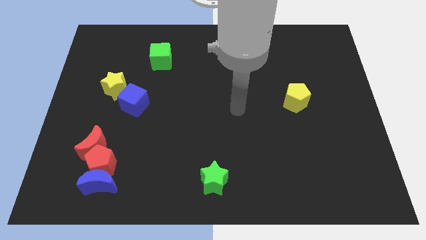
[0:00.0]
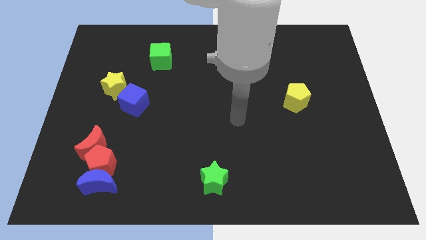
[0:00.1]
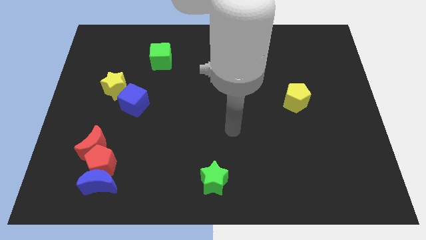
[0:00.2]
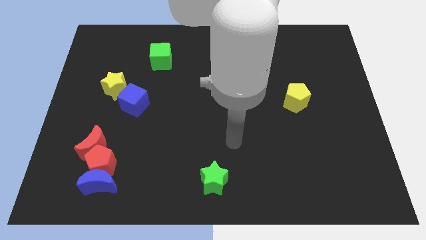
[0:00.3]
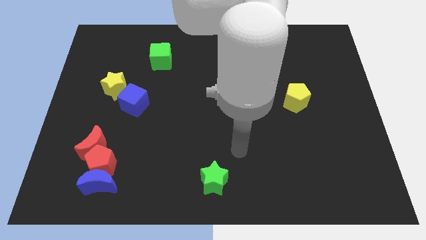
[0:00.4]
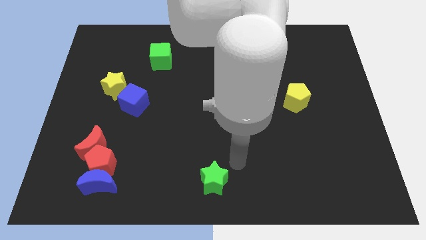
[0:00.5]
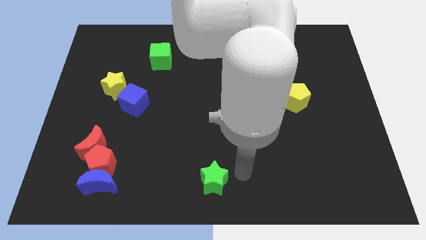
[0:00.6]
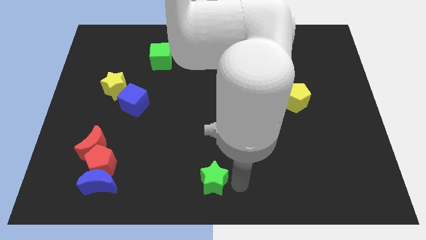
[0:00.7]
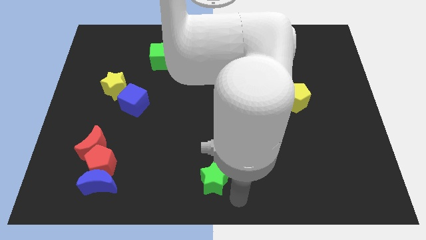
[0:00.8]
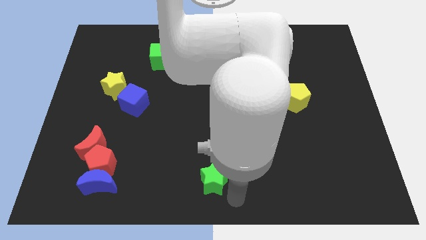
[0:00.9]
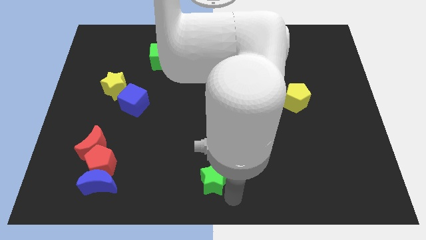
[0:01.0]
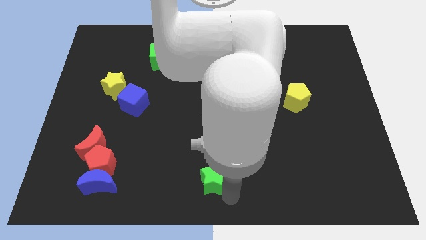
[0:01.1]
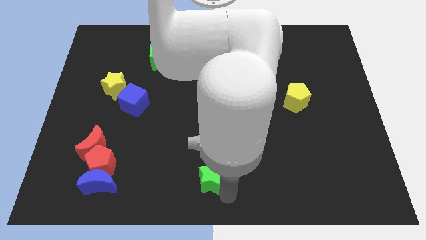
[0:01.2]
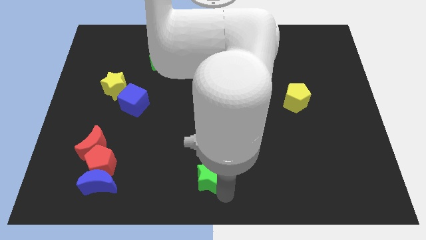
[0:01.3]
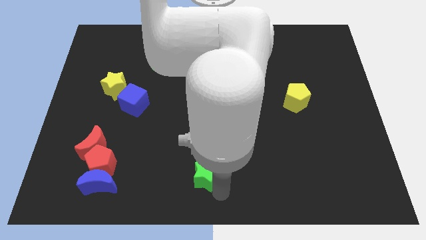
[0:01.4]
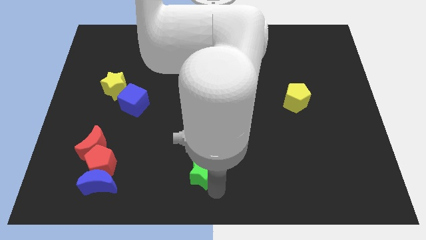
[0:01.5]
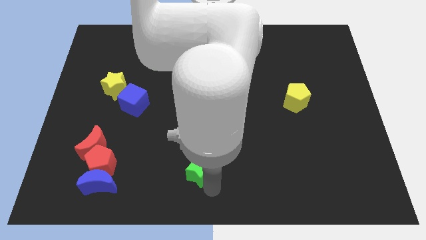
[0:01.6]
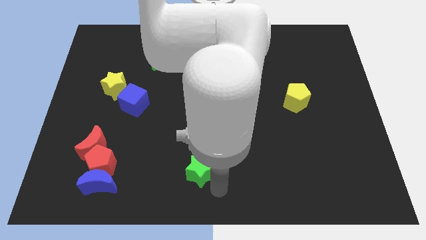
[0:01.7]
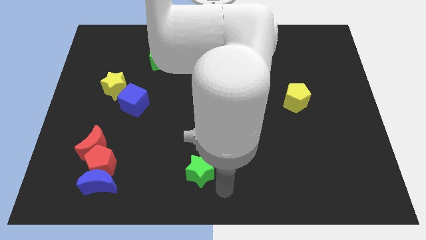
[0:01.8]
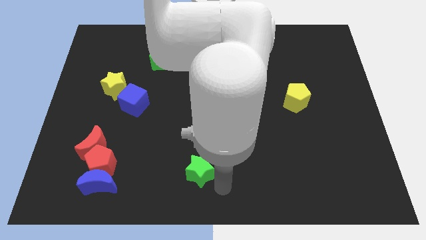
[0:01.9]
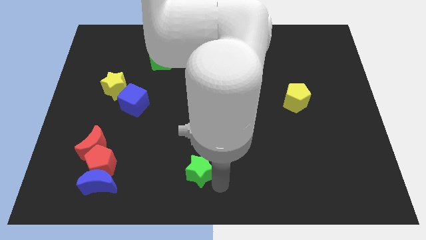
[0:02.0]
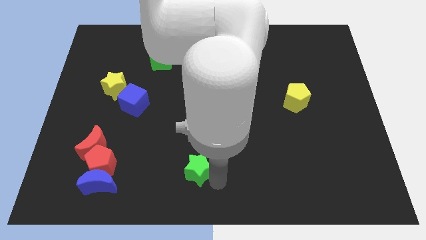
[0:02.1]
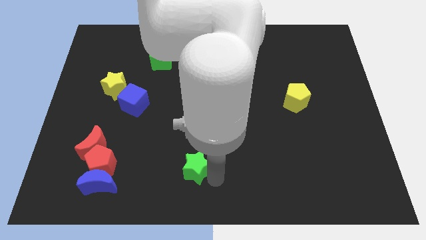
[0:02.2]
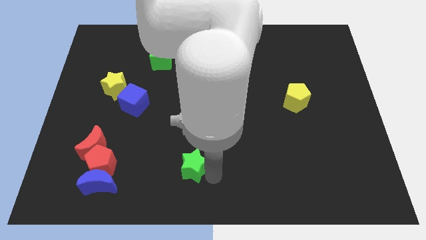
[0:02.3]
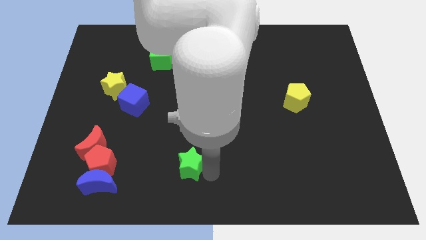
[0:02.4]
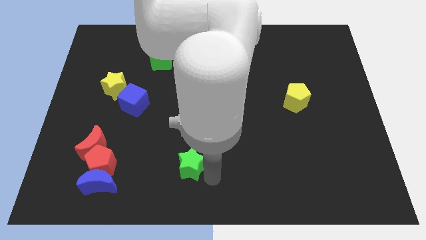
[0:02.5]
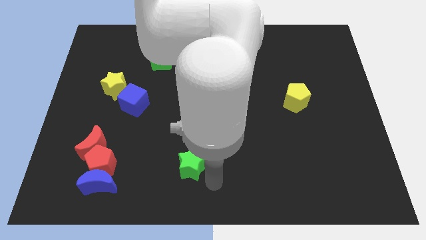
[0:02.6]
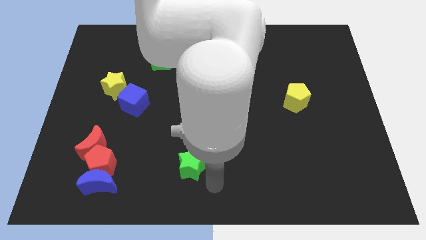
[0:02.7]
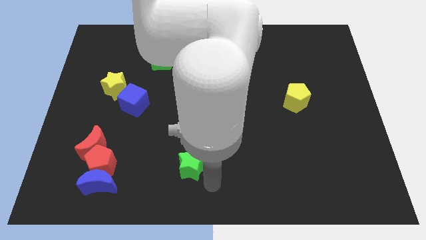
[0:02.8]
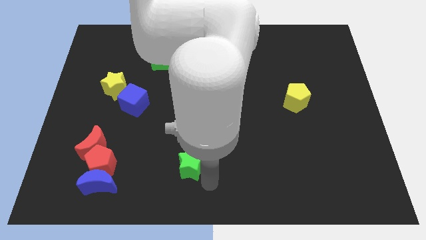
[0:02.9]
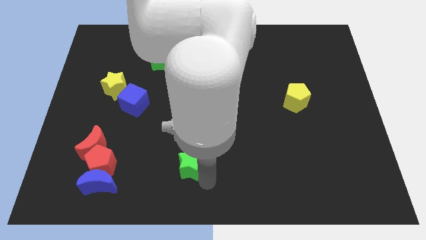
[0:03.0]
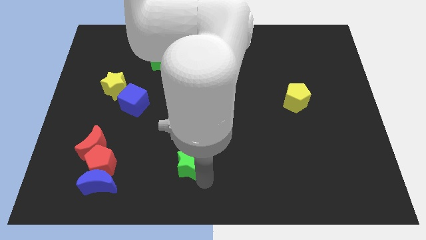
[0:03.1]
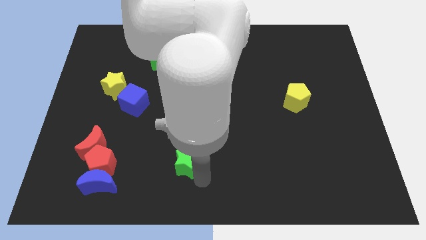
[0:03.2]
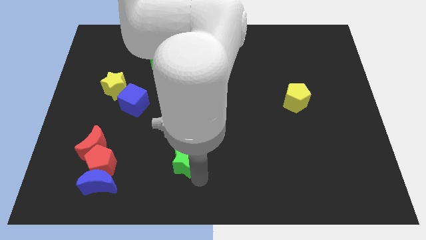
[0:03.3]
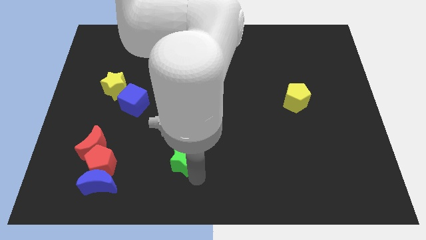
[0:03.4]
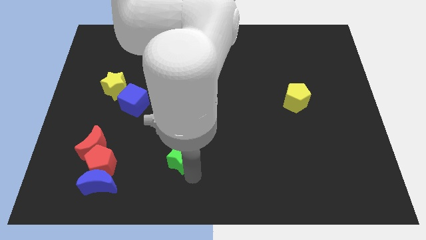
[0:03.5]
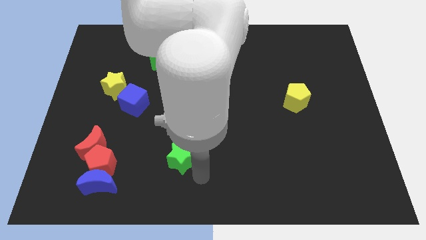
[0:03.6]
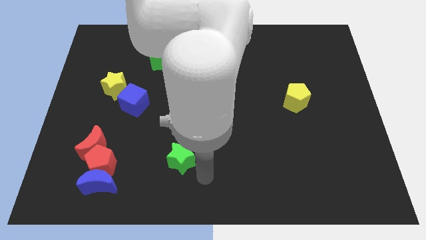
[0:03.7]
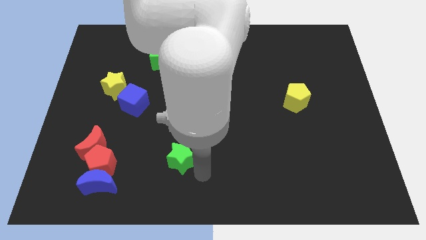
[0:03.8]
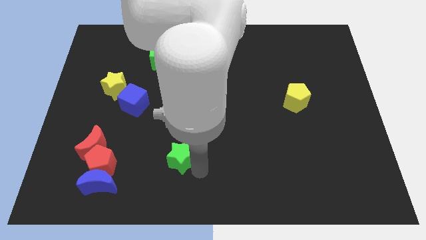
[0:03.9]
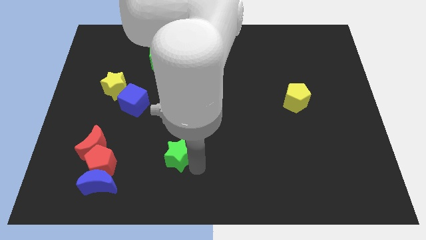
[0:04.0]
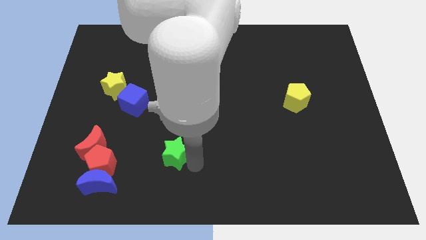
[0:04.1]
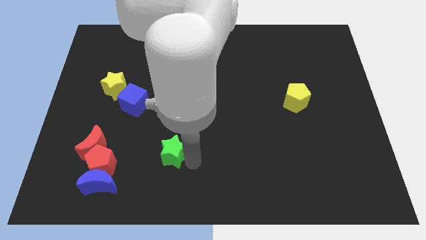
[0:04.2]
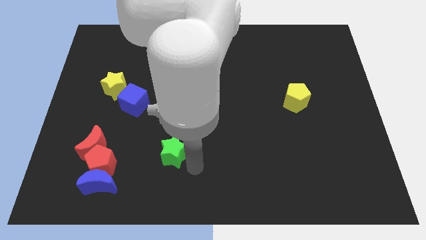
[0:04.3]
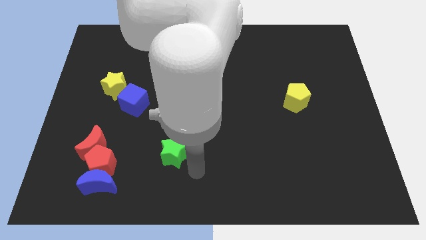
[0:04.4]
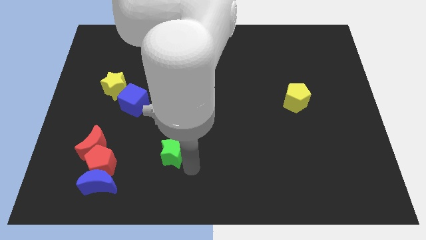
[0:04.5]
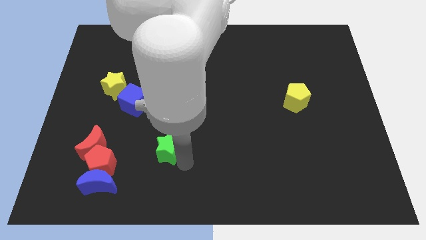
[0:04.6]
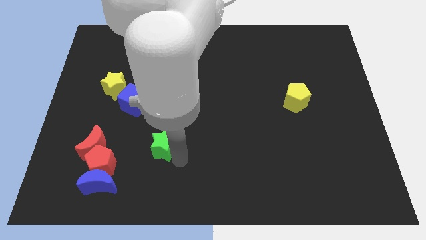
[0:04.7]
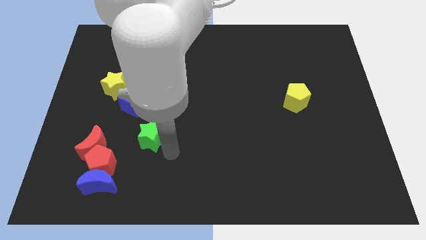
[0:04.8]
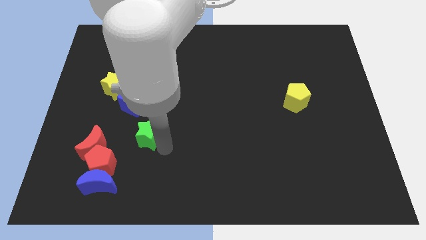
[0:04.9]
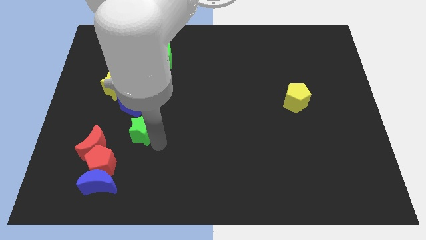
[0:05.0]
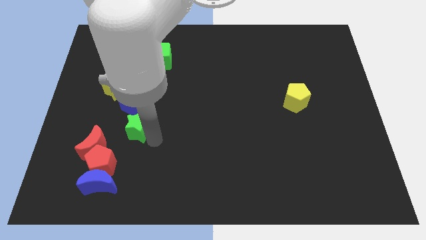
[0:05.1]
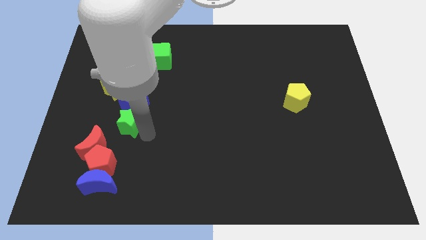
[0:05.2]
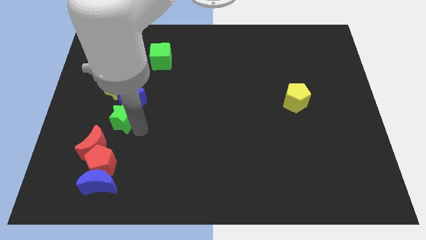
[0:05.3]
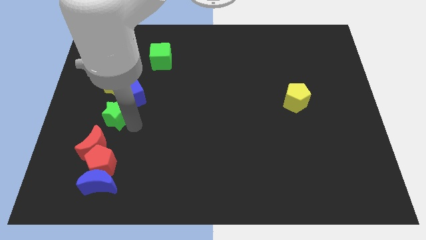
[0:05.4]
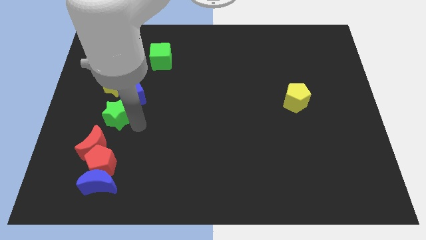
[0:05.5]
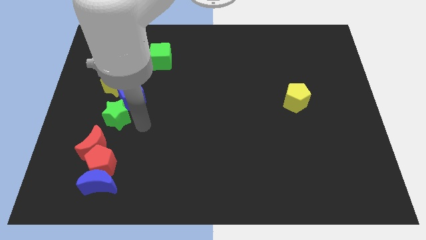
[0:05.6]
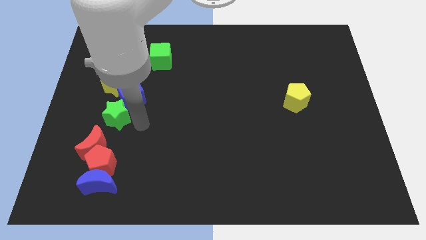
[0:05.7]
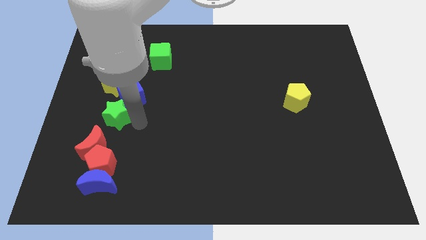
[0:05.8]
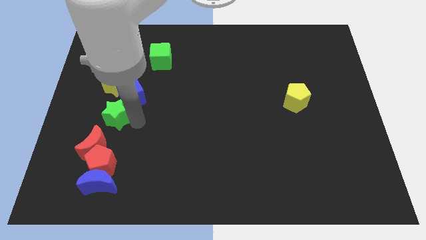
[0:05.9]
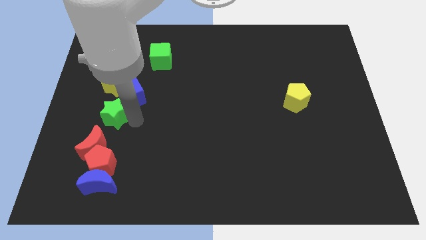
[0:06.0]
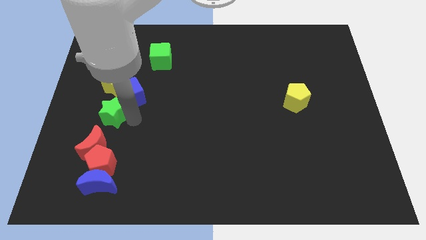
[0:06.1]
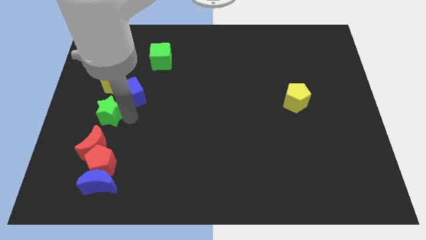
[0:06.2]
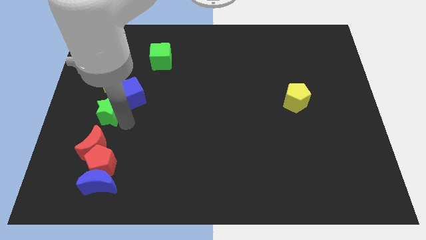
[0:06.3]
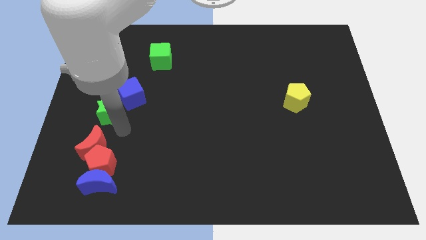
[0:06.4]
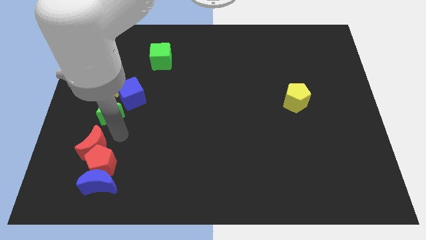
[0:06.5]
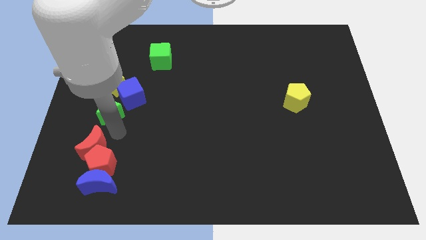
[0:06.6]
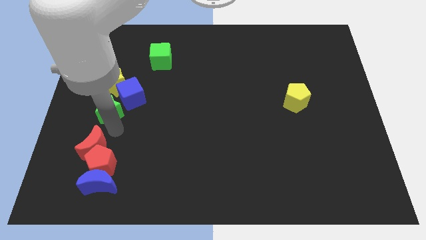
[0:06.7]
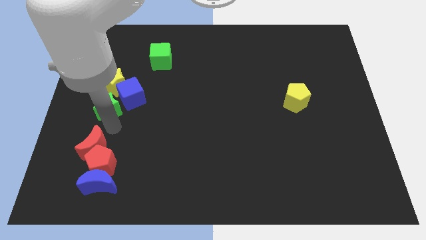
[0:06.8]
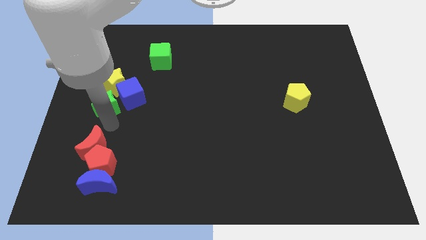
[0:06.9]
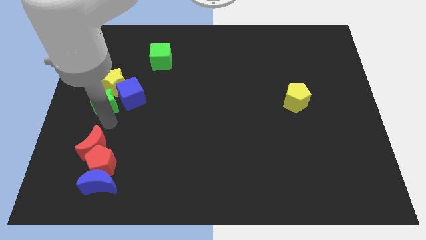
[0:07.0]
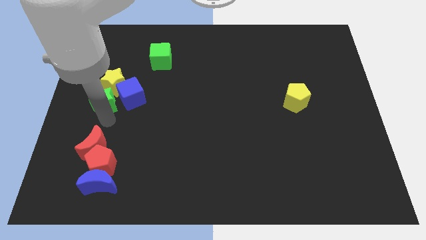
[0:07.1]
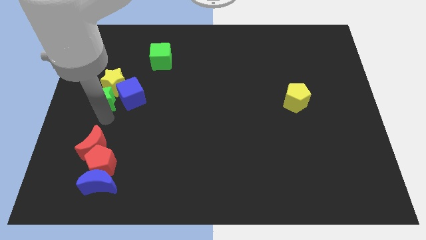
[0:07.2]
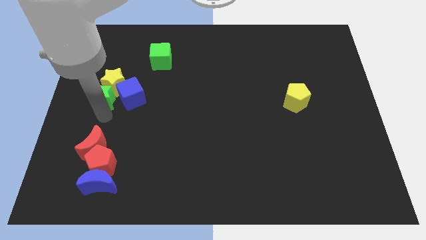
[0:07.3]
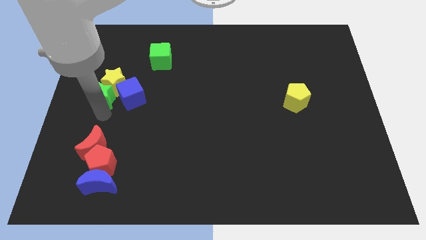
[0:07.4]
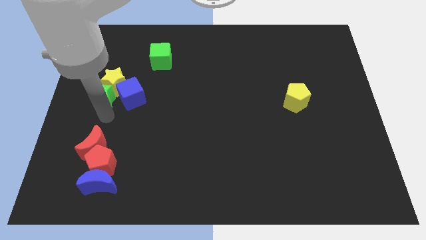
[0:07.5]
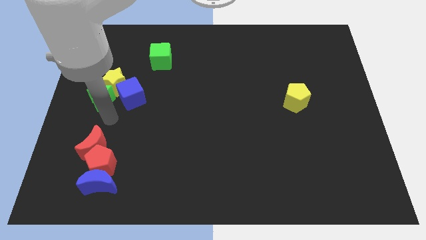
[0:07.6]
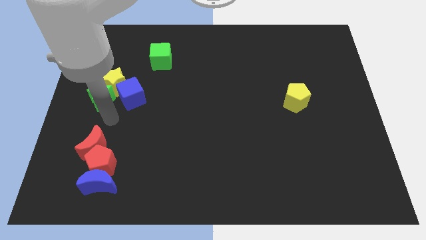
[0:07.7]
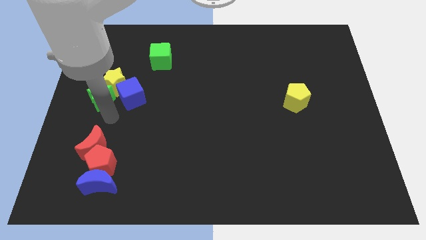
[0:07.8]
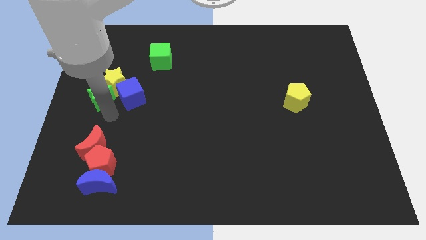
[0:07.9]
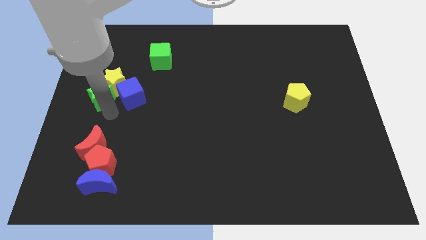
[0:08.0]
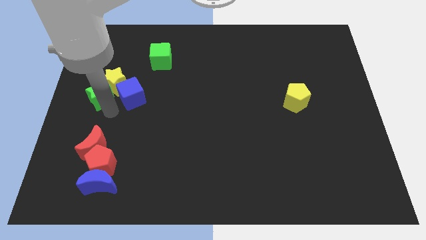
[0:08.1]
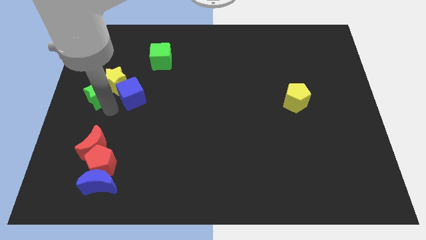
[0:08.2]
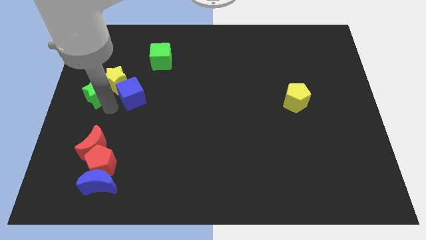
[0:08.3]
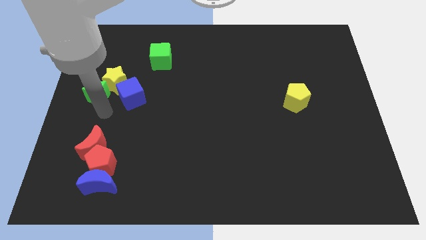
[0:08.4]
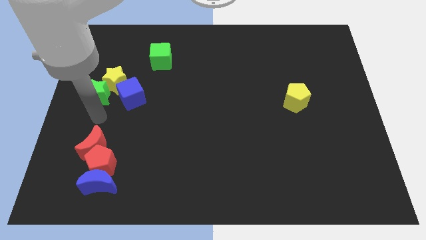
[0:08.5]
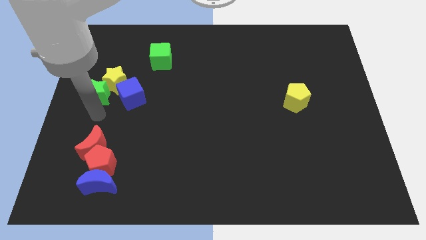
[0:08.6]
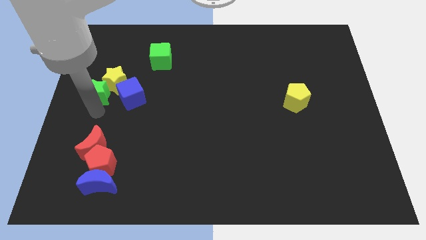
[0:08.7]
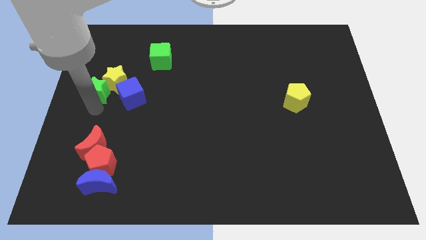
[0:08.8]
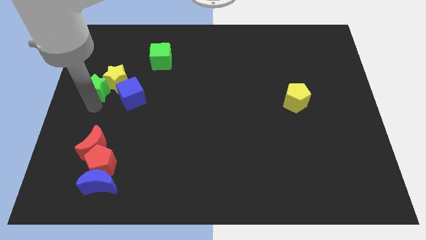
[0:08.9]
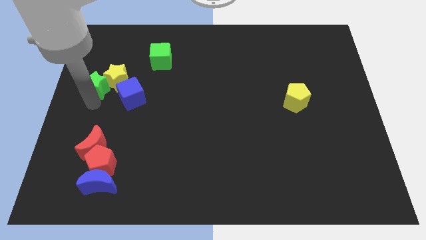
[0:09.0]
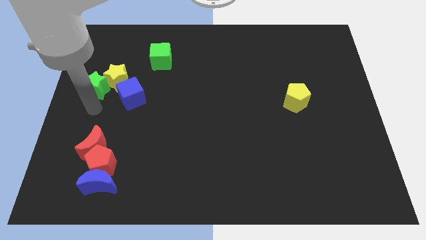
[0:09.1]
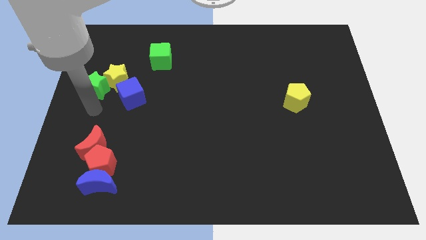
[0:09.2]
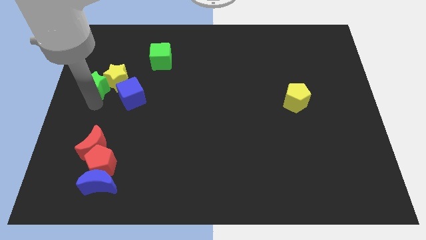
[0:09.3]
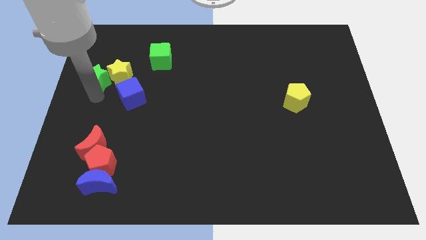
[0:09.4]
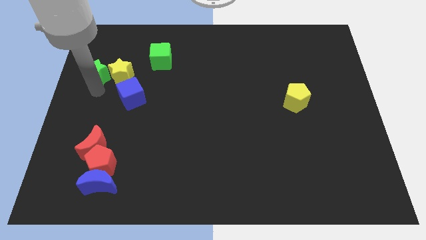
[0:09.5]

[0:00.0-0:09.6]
slide the green star to the top left side of the yellow star
